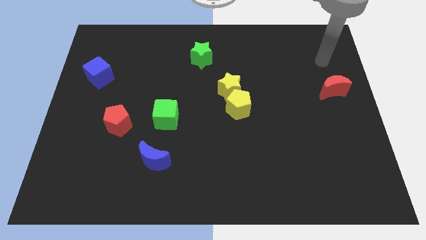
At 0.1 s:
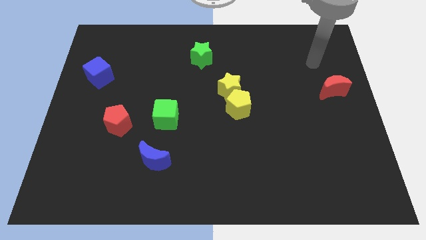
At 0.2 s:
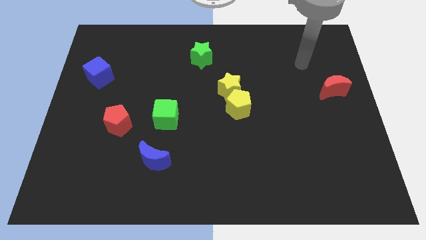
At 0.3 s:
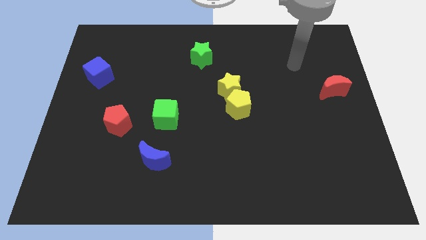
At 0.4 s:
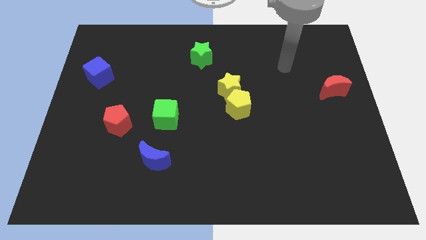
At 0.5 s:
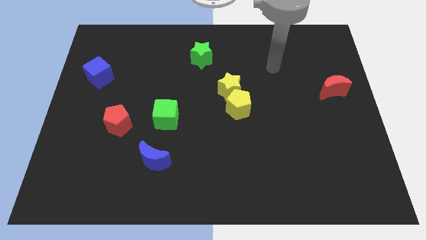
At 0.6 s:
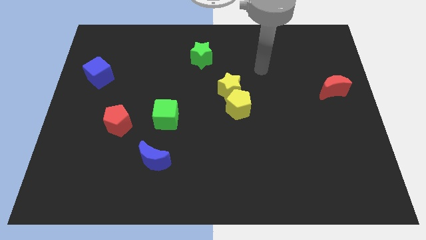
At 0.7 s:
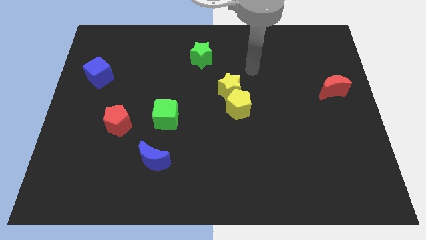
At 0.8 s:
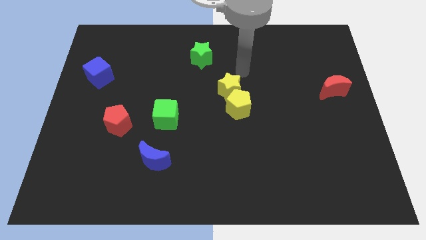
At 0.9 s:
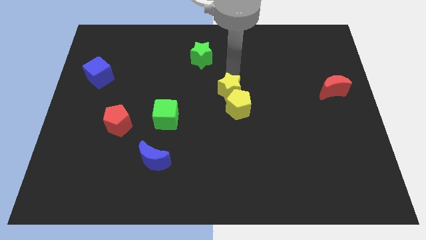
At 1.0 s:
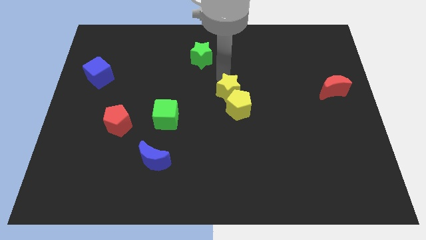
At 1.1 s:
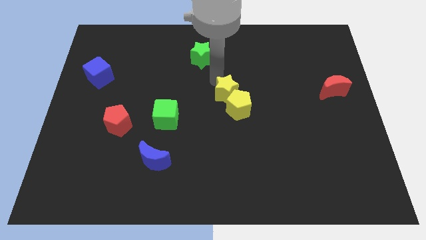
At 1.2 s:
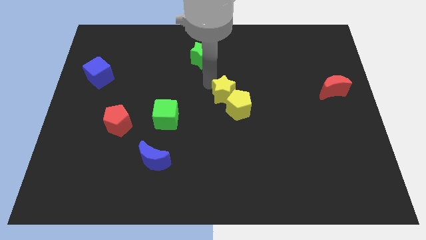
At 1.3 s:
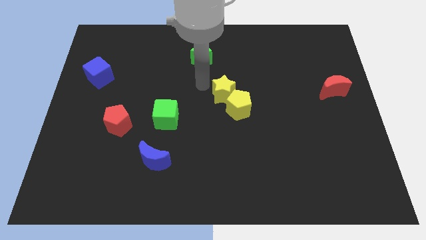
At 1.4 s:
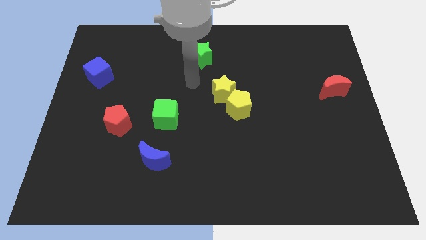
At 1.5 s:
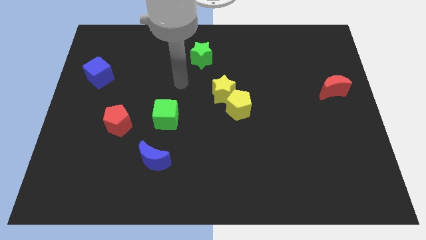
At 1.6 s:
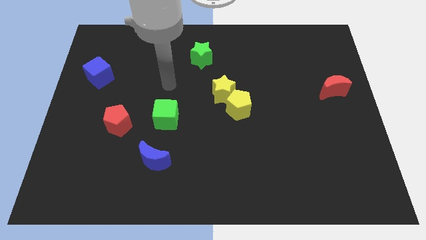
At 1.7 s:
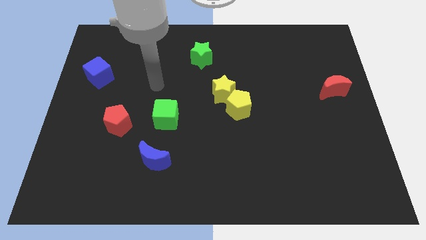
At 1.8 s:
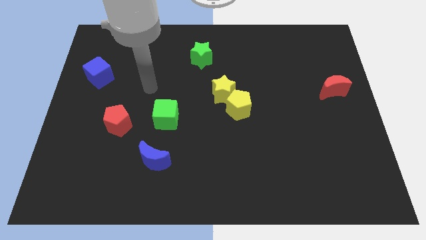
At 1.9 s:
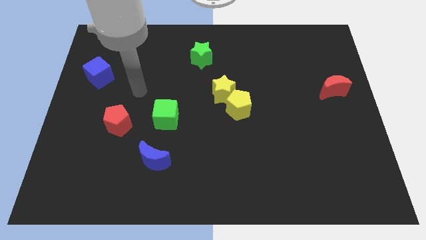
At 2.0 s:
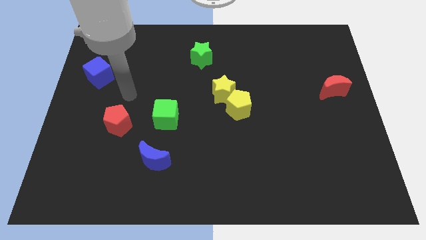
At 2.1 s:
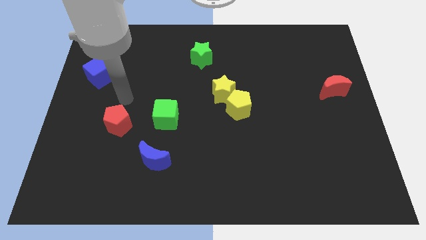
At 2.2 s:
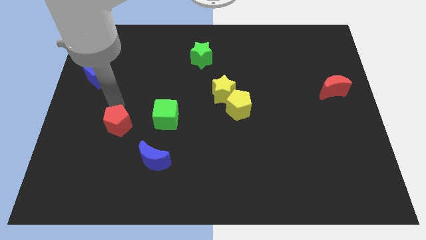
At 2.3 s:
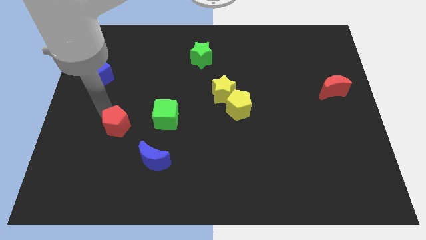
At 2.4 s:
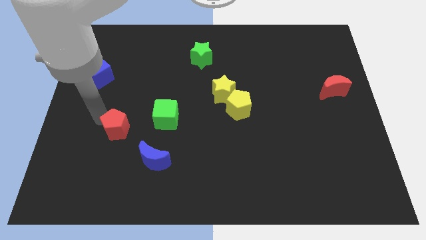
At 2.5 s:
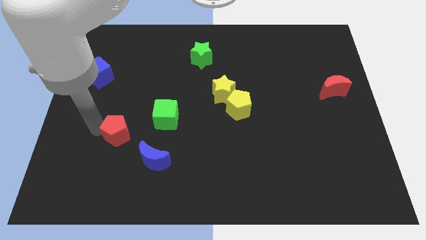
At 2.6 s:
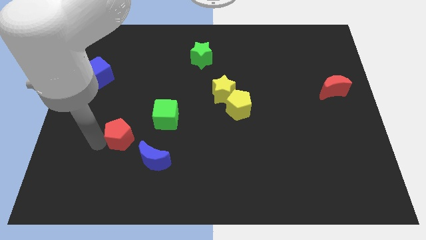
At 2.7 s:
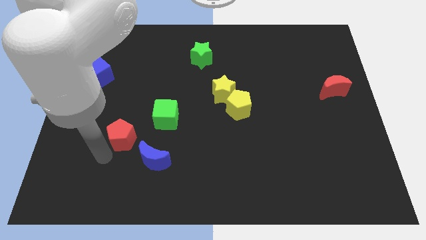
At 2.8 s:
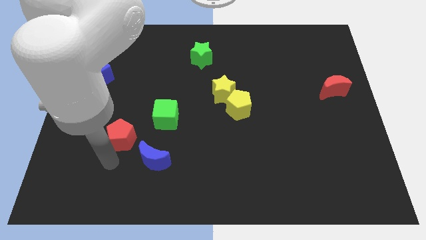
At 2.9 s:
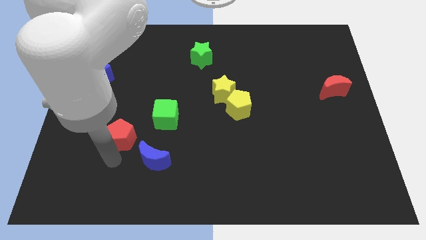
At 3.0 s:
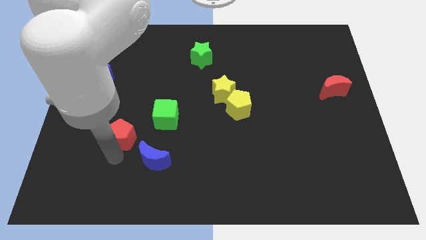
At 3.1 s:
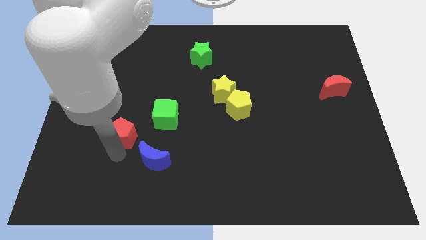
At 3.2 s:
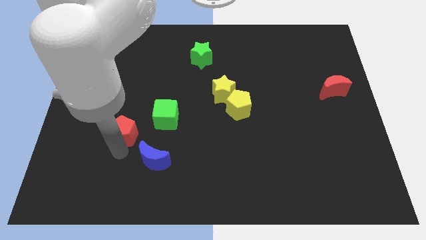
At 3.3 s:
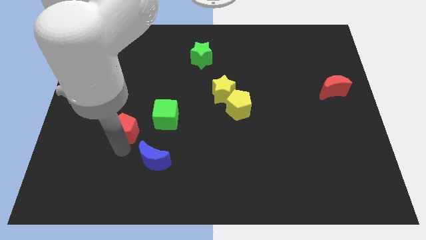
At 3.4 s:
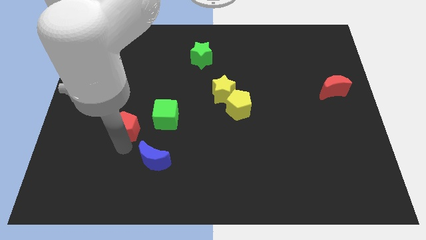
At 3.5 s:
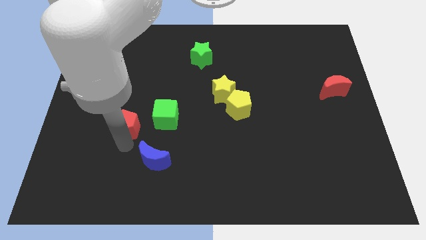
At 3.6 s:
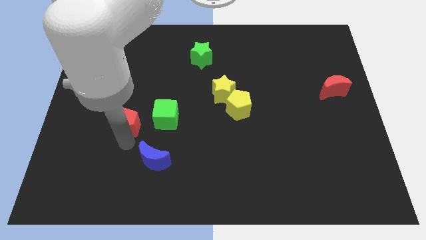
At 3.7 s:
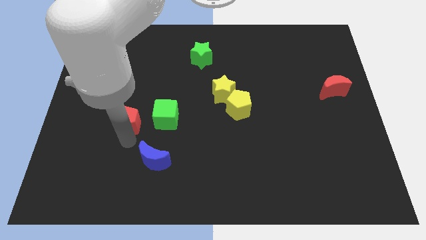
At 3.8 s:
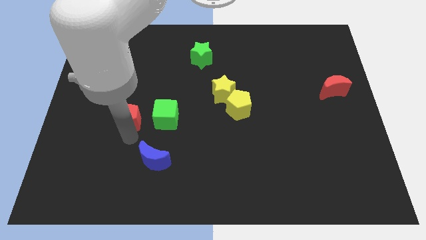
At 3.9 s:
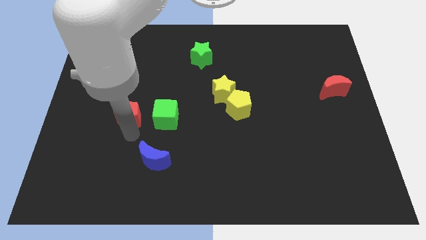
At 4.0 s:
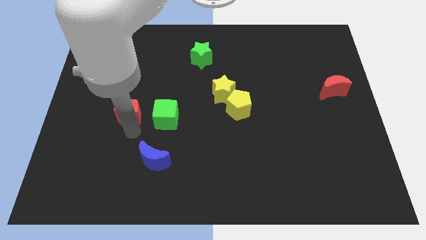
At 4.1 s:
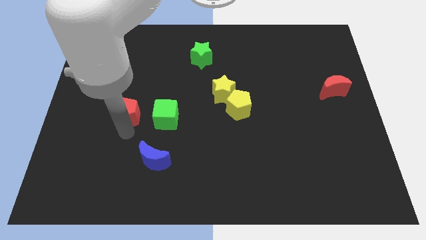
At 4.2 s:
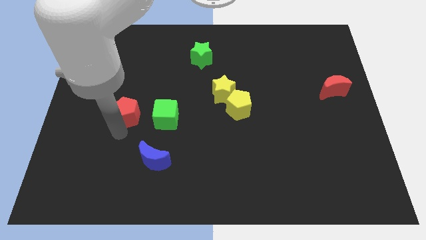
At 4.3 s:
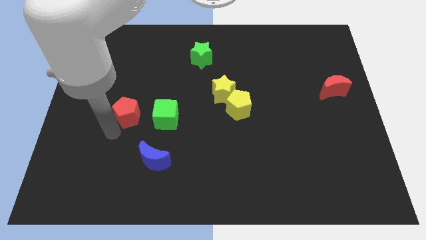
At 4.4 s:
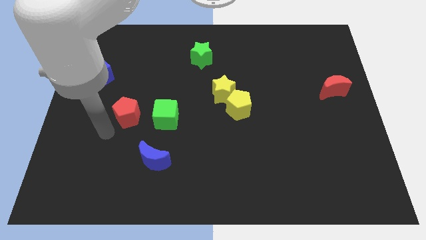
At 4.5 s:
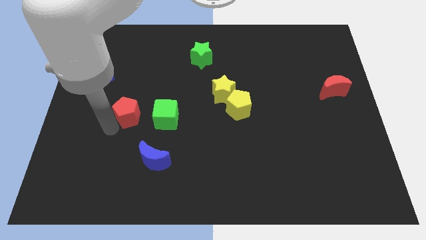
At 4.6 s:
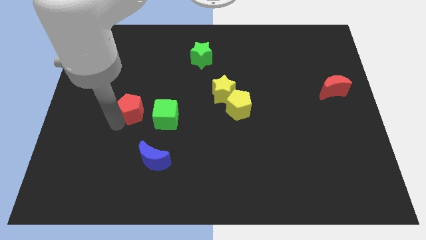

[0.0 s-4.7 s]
move the red pentagon to the top left side of the green cube

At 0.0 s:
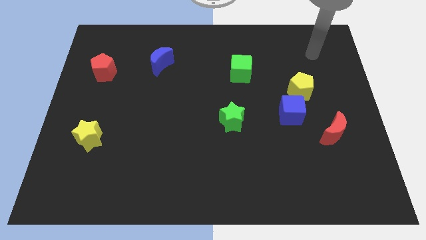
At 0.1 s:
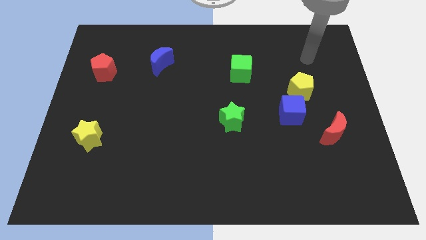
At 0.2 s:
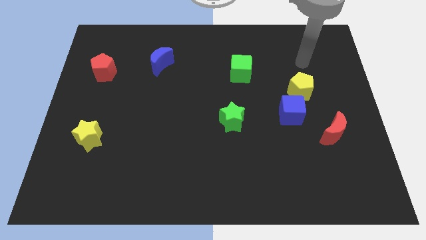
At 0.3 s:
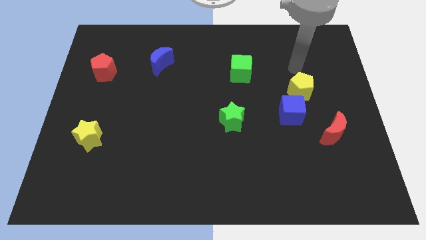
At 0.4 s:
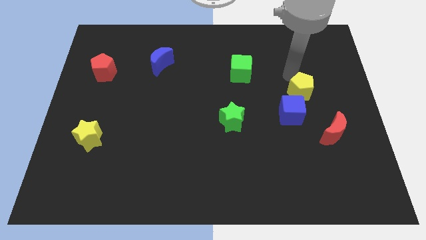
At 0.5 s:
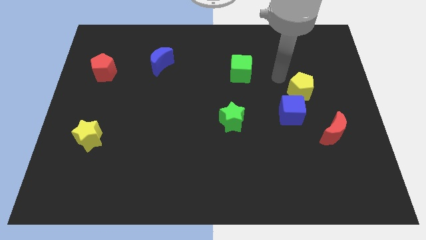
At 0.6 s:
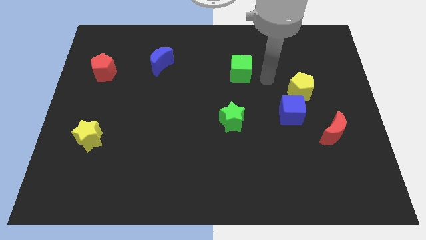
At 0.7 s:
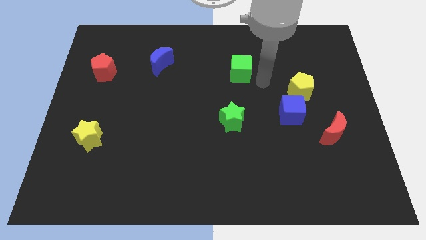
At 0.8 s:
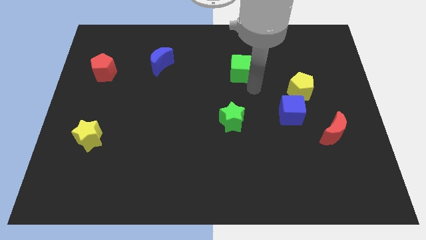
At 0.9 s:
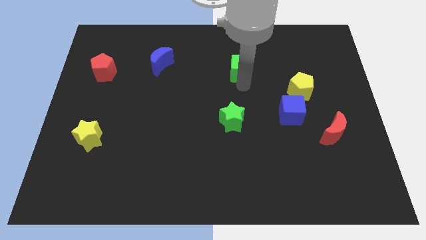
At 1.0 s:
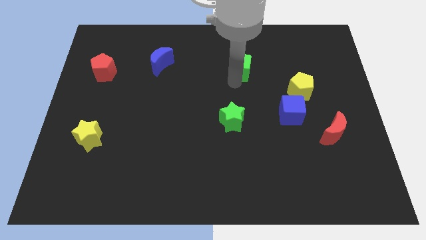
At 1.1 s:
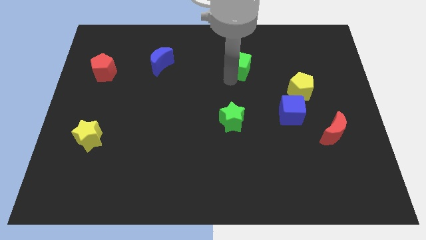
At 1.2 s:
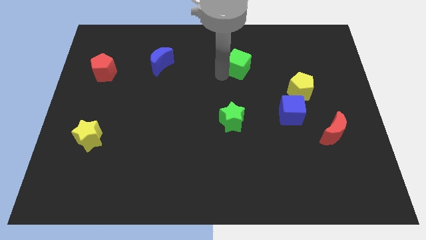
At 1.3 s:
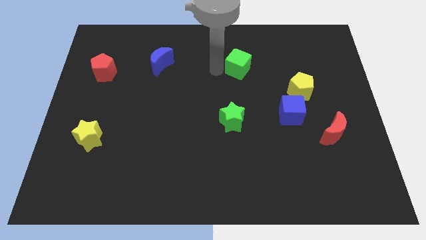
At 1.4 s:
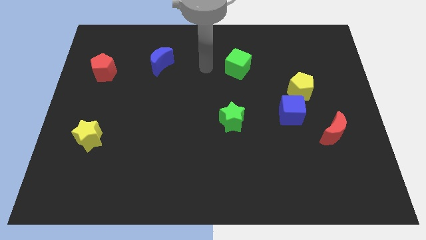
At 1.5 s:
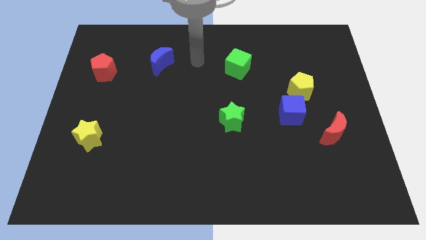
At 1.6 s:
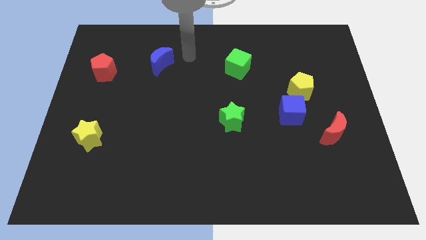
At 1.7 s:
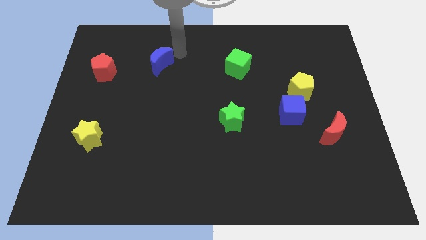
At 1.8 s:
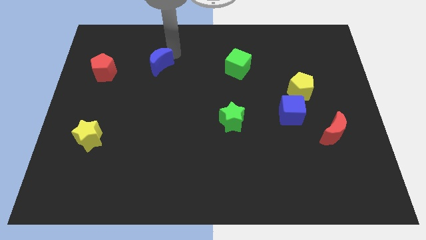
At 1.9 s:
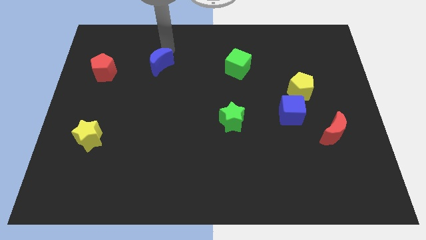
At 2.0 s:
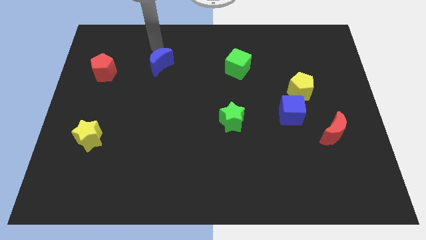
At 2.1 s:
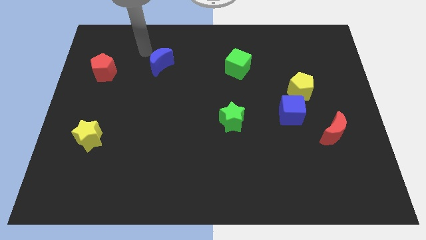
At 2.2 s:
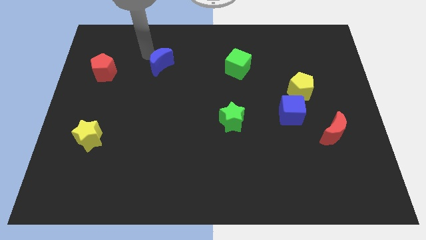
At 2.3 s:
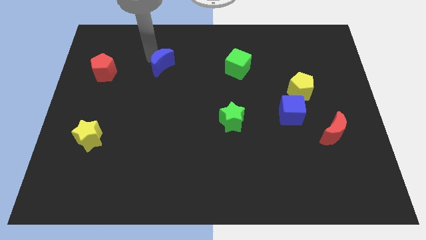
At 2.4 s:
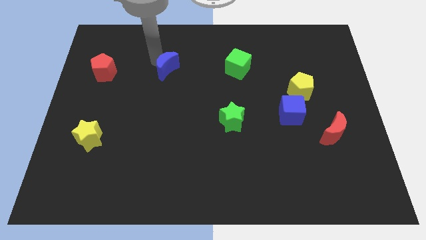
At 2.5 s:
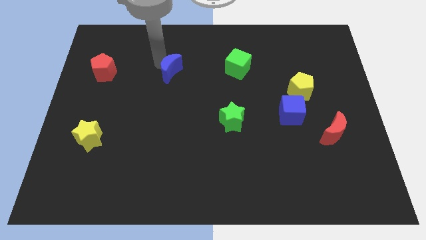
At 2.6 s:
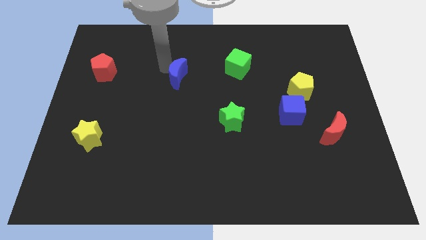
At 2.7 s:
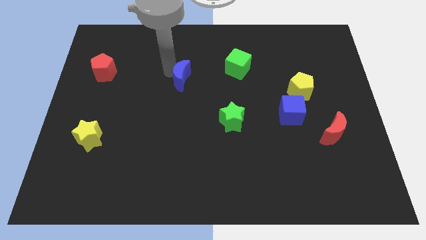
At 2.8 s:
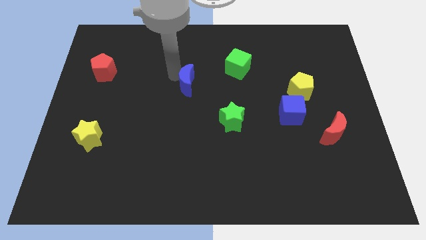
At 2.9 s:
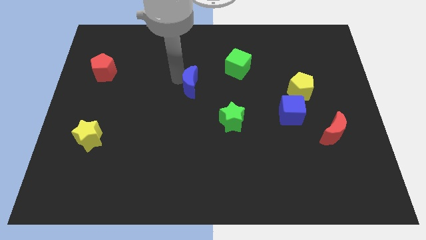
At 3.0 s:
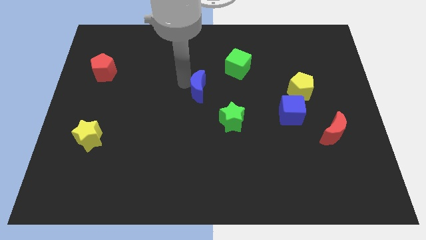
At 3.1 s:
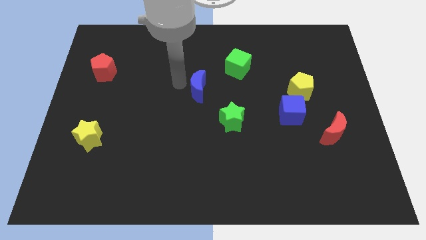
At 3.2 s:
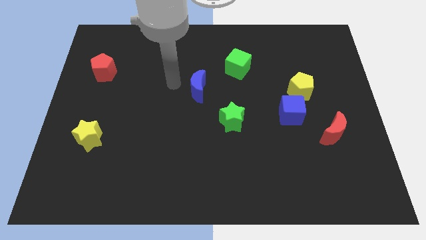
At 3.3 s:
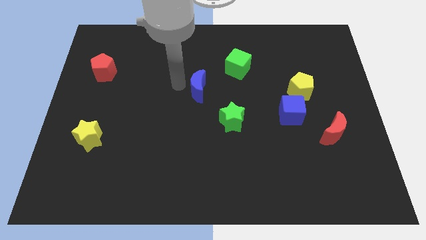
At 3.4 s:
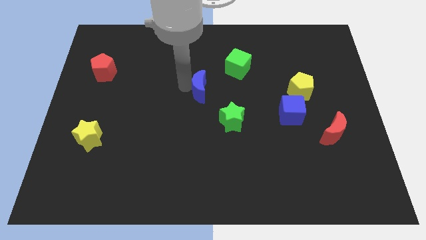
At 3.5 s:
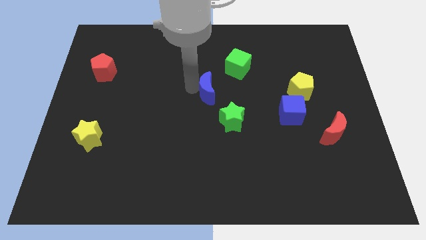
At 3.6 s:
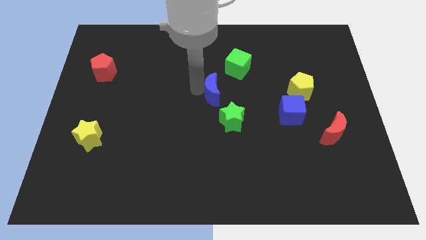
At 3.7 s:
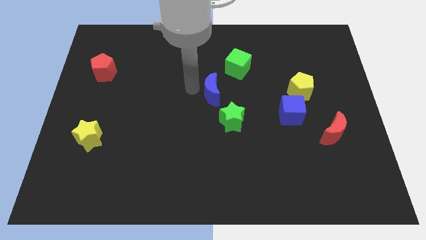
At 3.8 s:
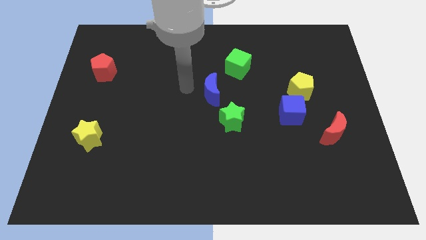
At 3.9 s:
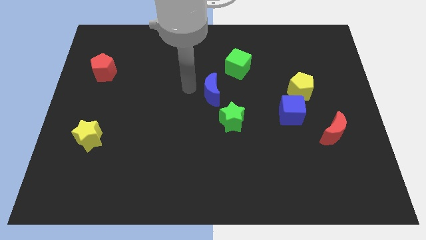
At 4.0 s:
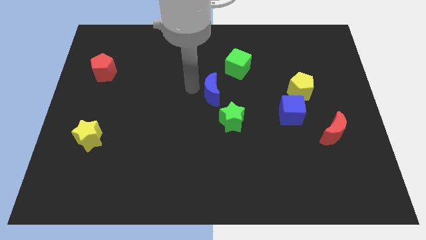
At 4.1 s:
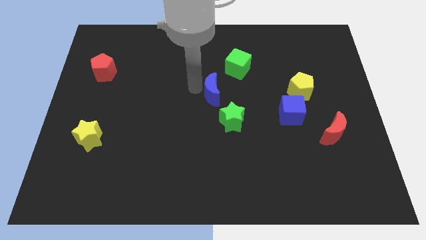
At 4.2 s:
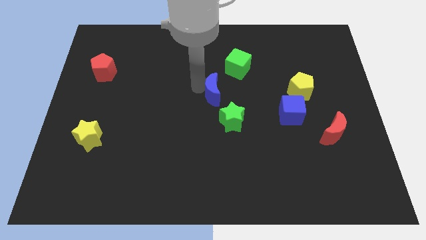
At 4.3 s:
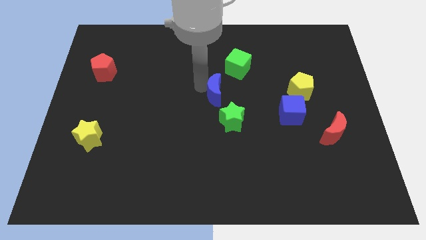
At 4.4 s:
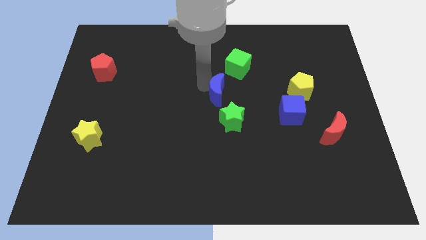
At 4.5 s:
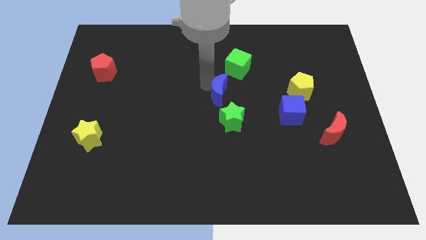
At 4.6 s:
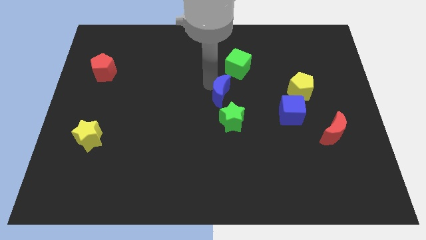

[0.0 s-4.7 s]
put the blue moon to the bottom side of the green cube
